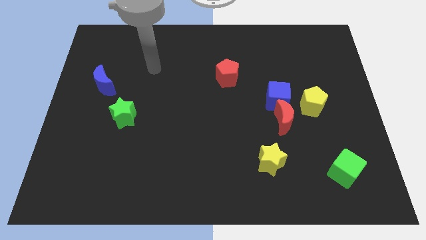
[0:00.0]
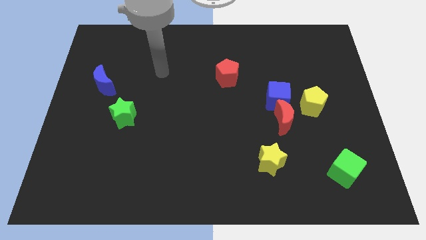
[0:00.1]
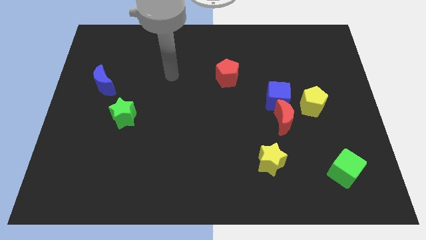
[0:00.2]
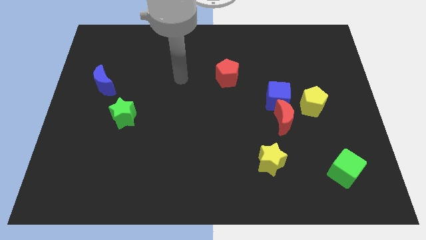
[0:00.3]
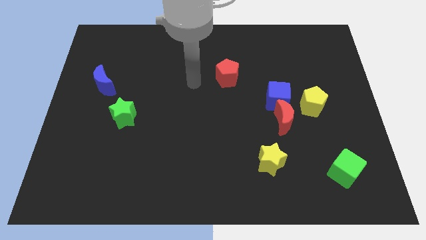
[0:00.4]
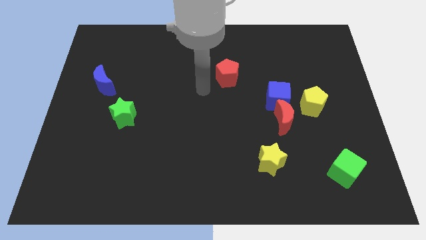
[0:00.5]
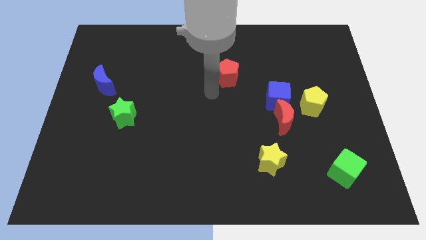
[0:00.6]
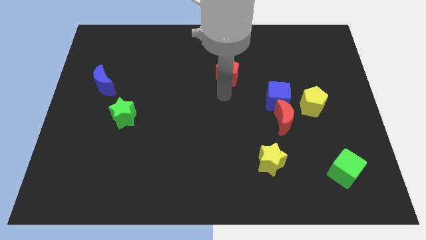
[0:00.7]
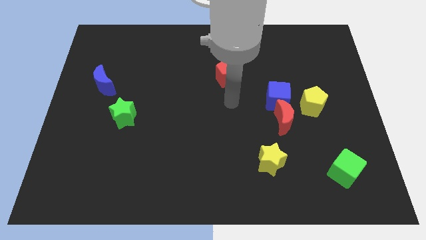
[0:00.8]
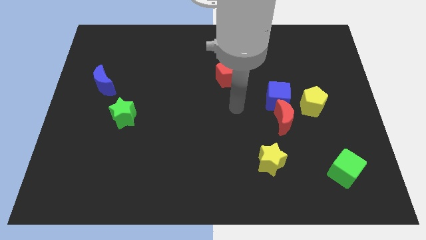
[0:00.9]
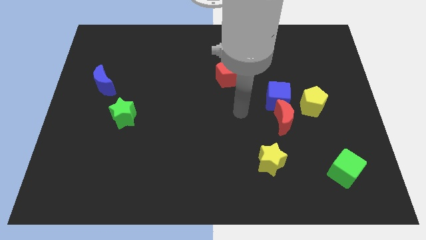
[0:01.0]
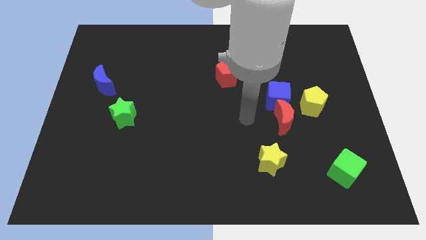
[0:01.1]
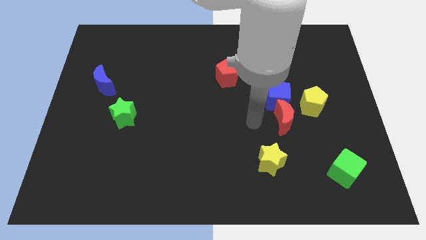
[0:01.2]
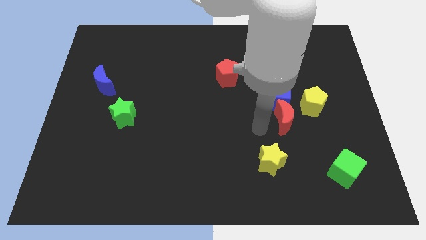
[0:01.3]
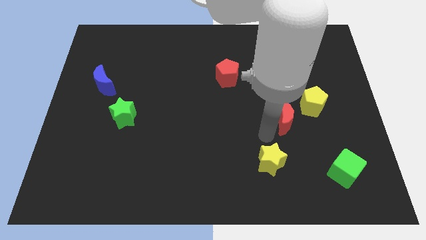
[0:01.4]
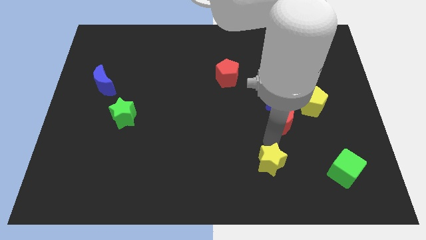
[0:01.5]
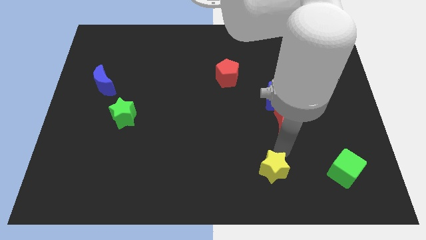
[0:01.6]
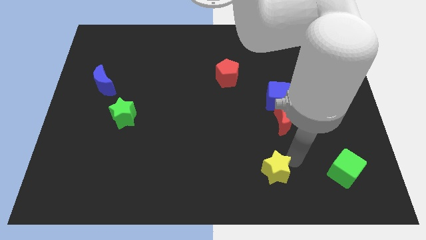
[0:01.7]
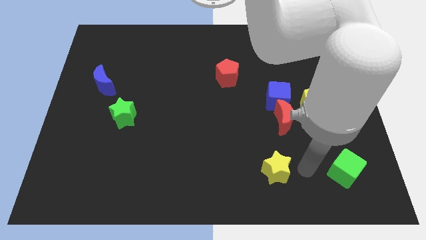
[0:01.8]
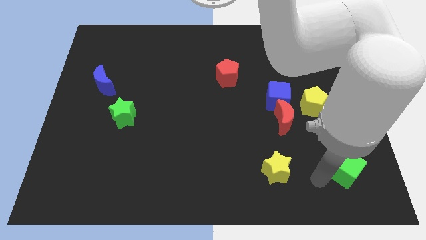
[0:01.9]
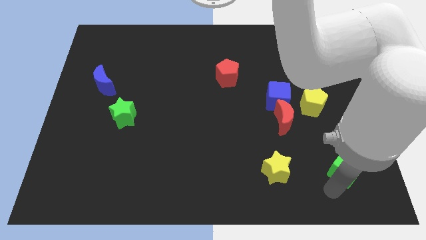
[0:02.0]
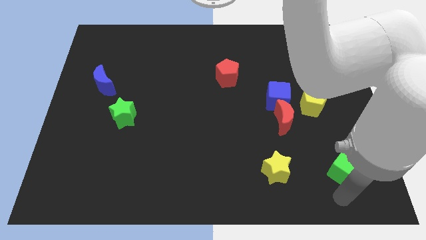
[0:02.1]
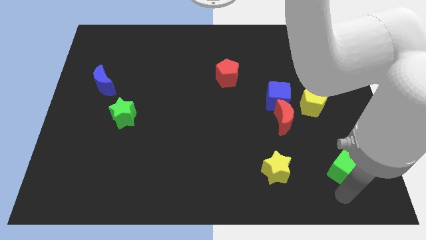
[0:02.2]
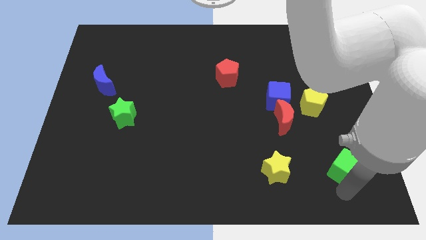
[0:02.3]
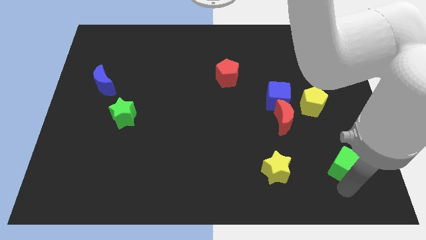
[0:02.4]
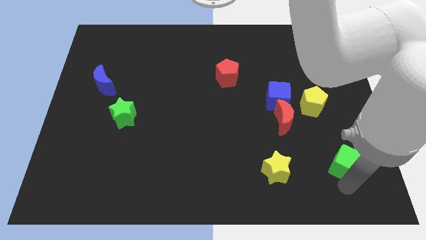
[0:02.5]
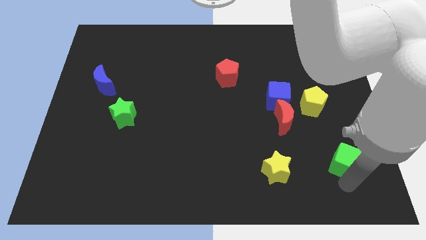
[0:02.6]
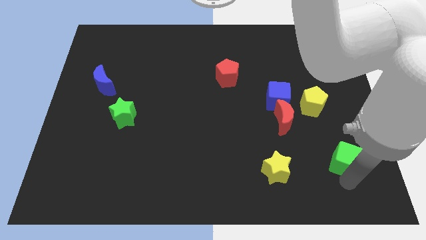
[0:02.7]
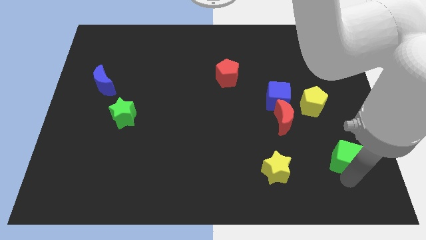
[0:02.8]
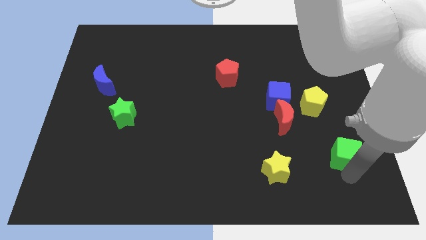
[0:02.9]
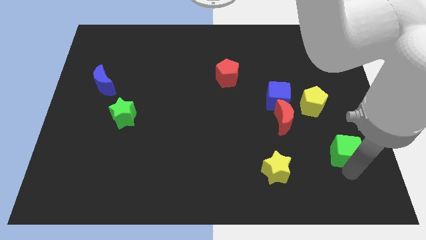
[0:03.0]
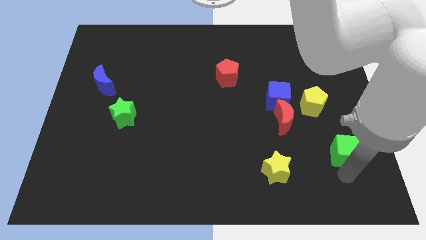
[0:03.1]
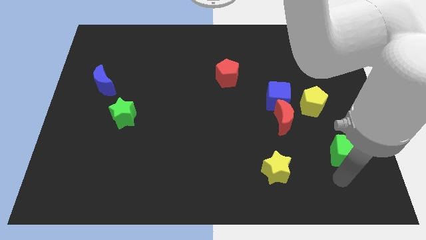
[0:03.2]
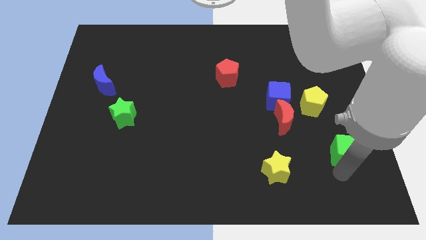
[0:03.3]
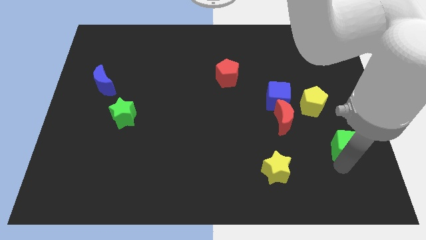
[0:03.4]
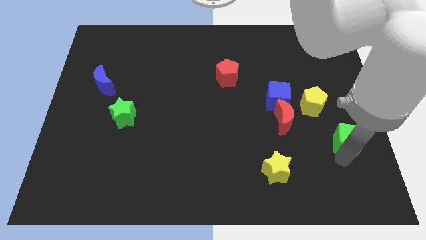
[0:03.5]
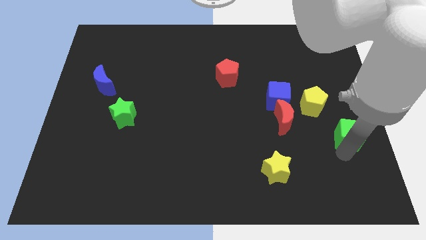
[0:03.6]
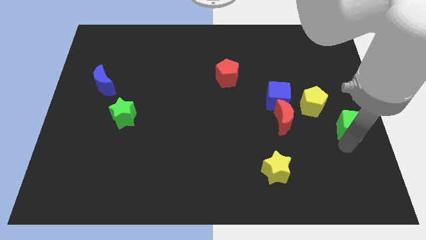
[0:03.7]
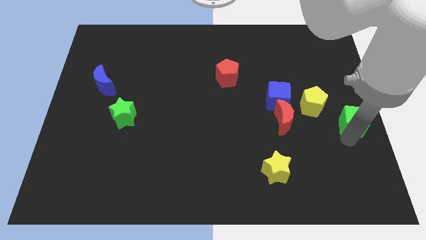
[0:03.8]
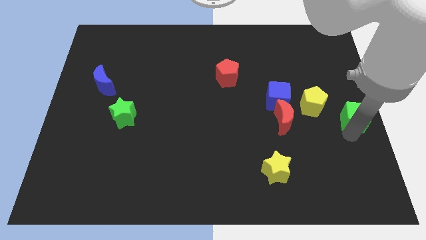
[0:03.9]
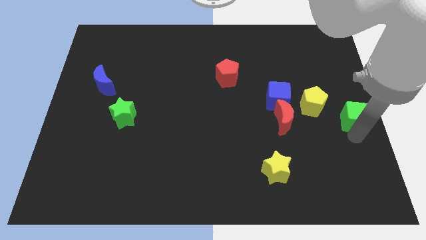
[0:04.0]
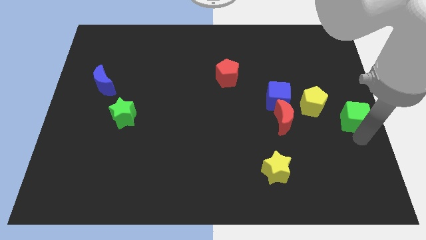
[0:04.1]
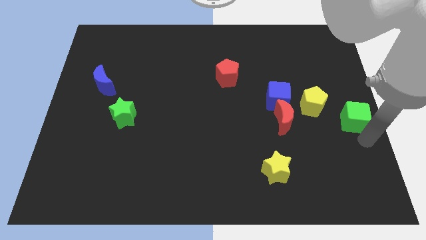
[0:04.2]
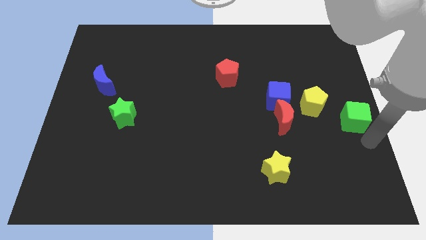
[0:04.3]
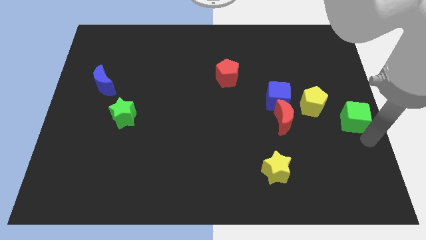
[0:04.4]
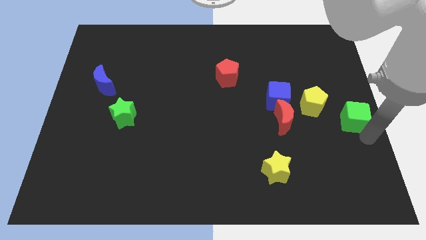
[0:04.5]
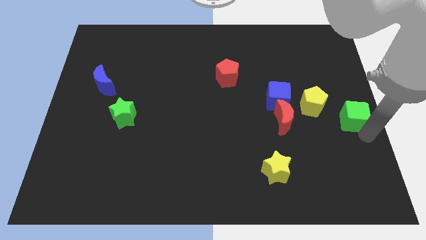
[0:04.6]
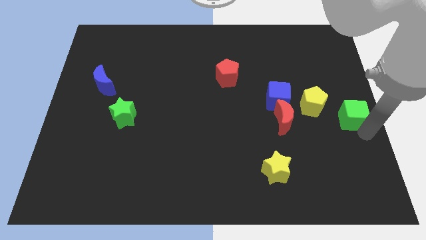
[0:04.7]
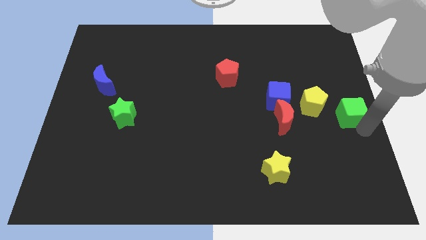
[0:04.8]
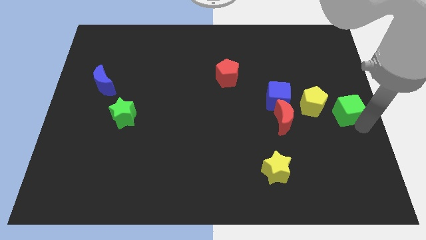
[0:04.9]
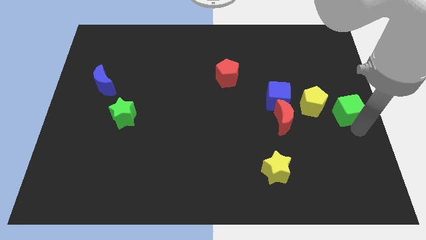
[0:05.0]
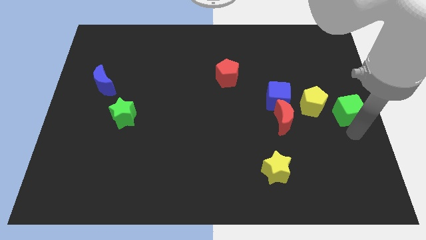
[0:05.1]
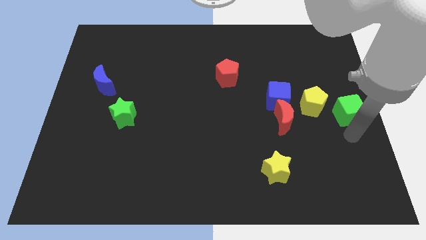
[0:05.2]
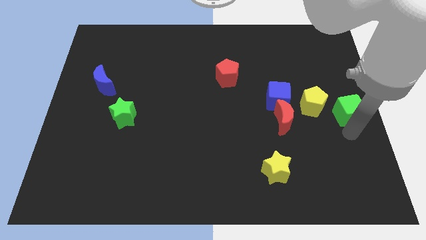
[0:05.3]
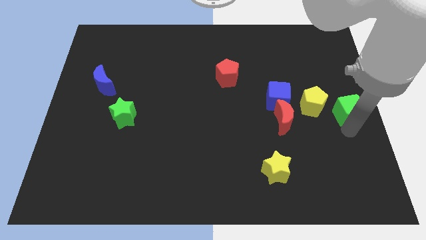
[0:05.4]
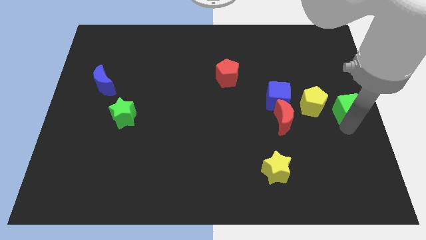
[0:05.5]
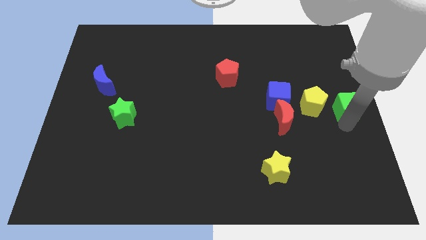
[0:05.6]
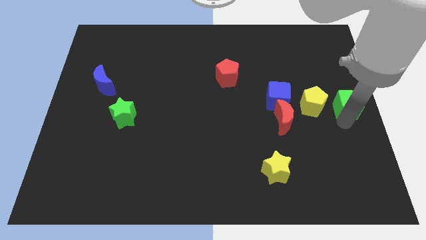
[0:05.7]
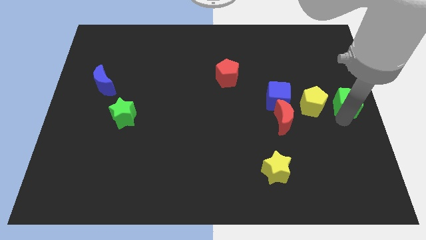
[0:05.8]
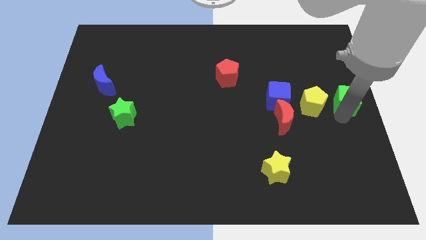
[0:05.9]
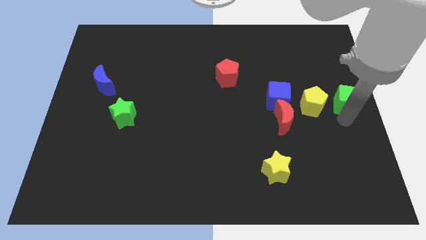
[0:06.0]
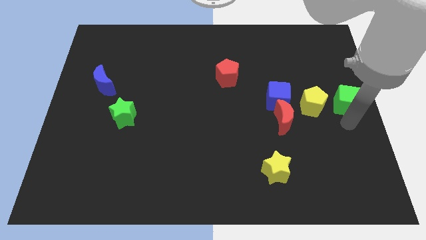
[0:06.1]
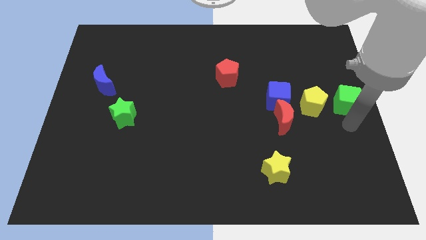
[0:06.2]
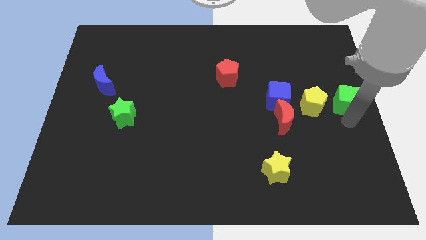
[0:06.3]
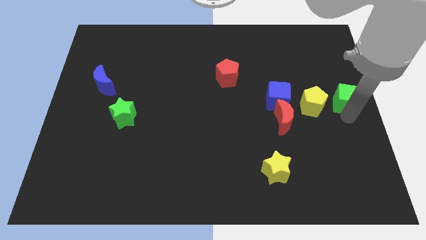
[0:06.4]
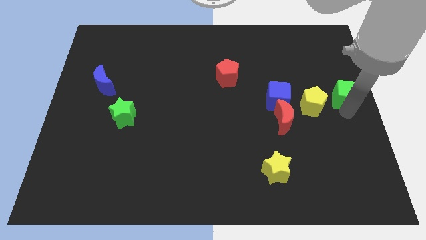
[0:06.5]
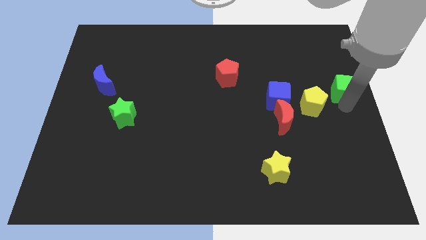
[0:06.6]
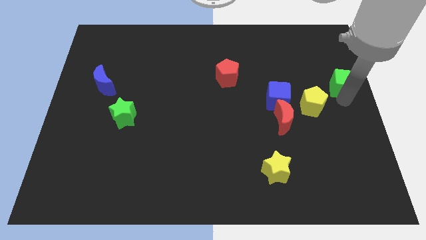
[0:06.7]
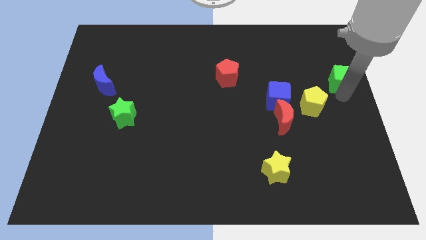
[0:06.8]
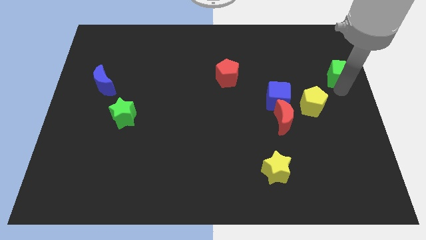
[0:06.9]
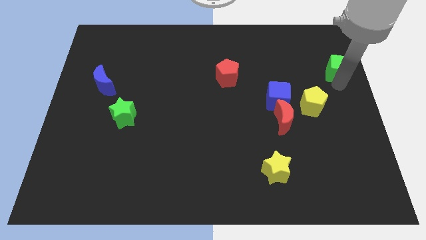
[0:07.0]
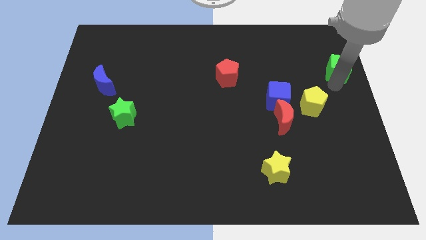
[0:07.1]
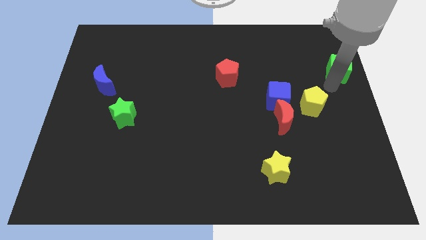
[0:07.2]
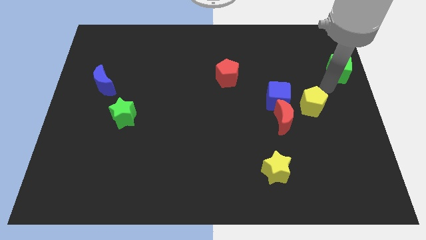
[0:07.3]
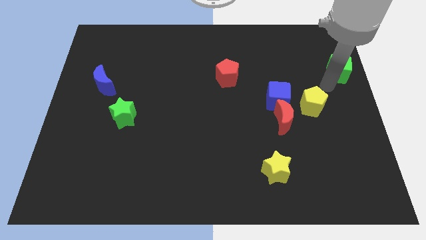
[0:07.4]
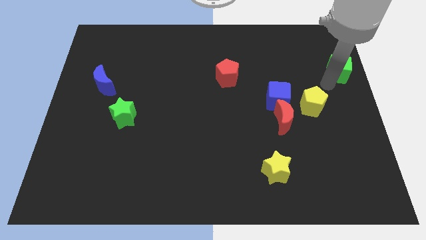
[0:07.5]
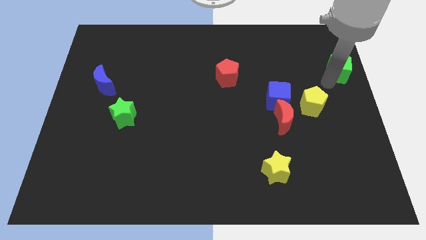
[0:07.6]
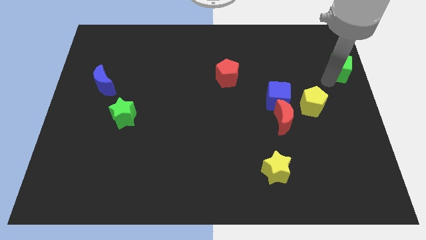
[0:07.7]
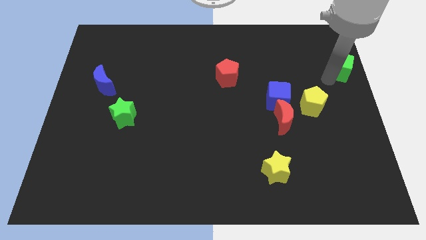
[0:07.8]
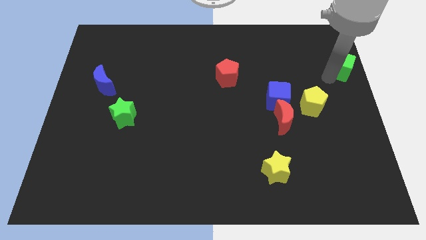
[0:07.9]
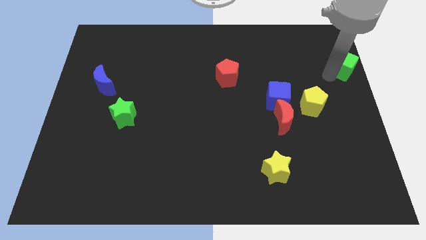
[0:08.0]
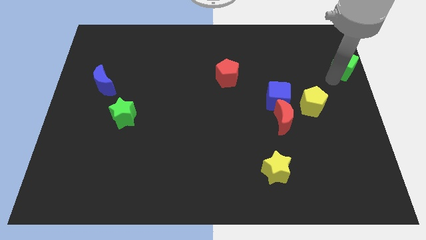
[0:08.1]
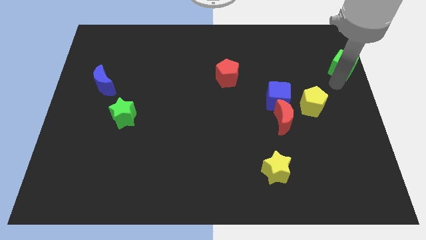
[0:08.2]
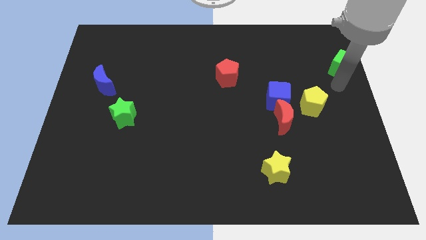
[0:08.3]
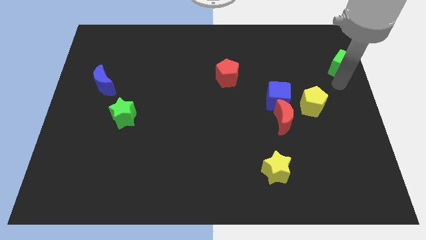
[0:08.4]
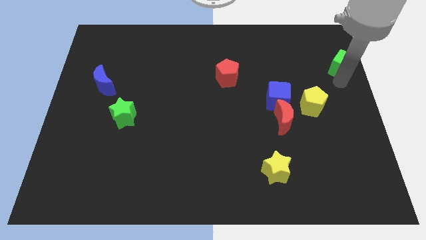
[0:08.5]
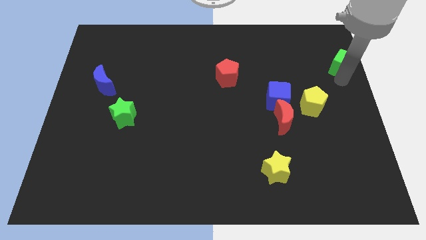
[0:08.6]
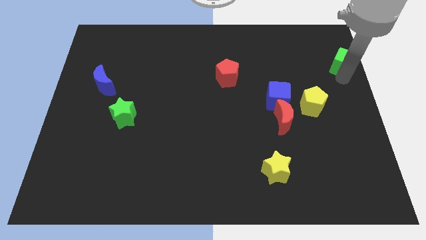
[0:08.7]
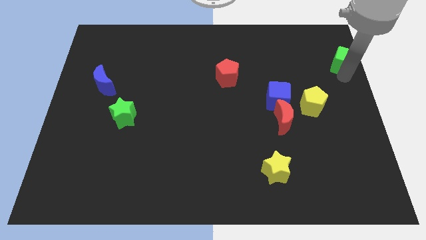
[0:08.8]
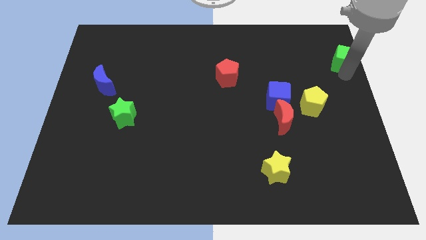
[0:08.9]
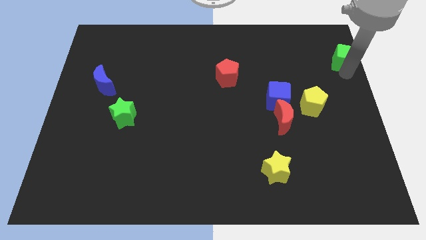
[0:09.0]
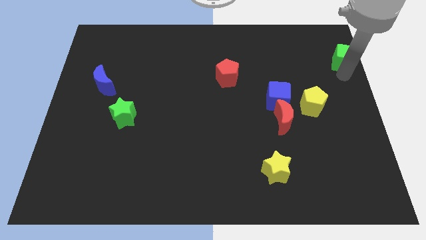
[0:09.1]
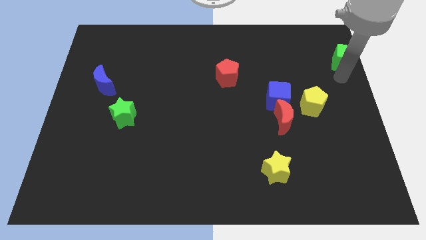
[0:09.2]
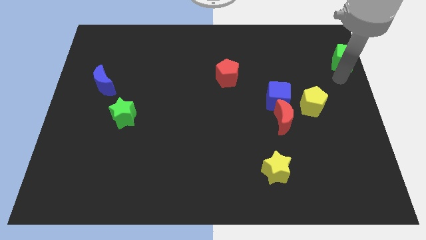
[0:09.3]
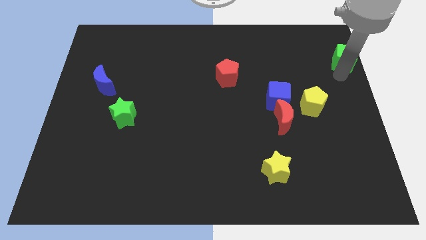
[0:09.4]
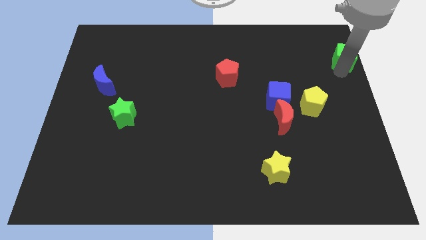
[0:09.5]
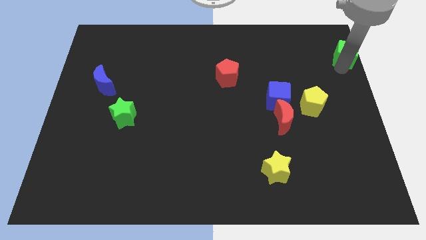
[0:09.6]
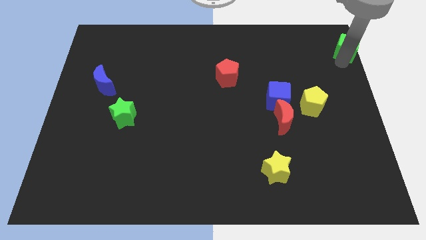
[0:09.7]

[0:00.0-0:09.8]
move the green cube to the top right of the board
